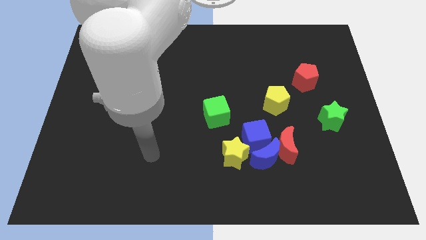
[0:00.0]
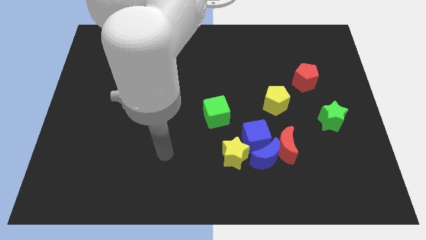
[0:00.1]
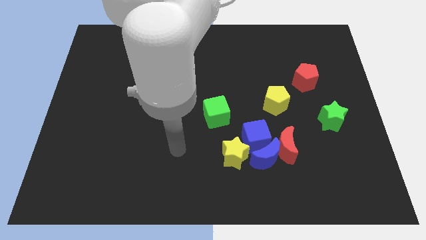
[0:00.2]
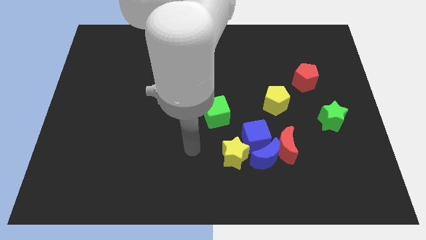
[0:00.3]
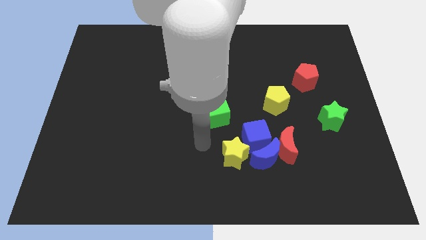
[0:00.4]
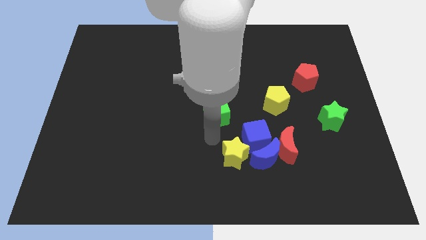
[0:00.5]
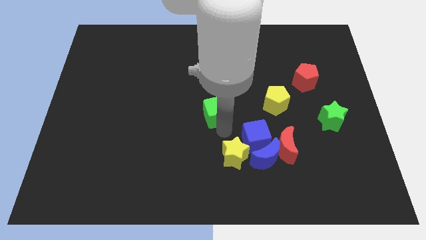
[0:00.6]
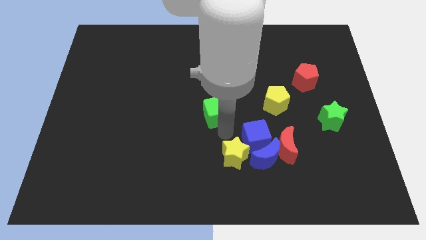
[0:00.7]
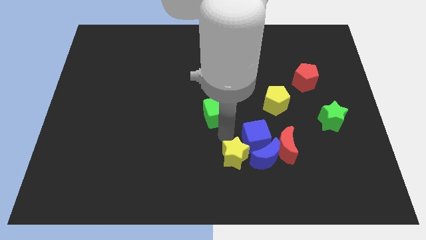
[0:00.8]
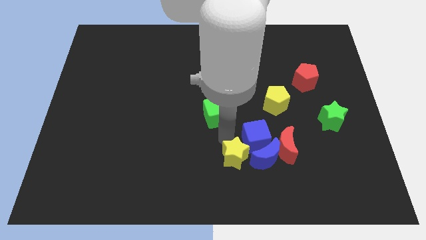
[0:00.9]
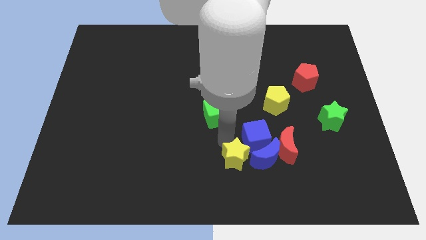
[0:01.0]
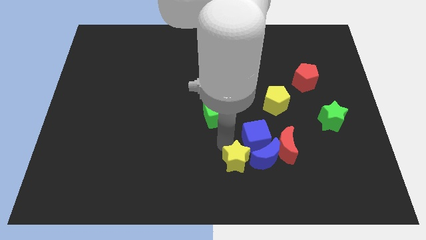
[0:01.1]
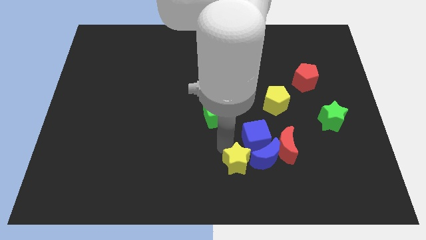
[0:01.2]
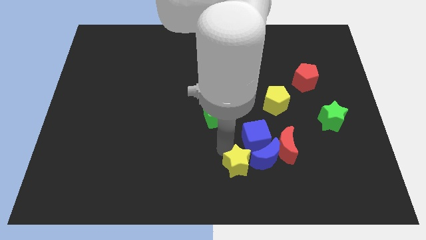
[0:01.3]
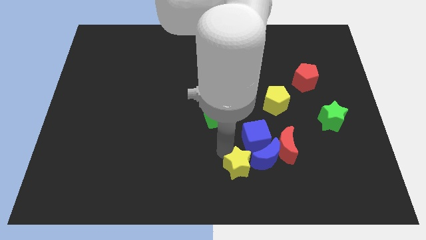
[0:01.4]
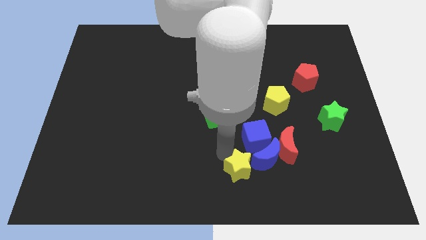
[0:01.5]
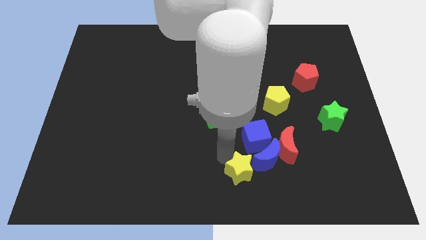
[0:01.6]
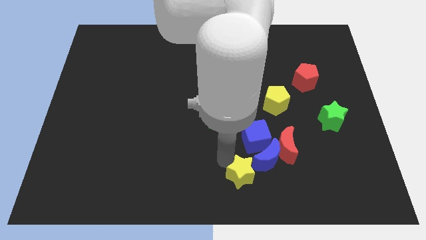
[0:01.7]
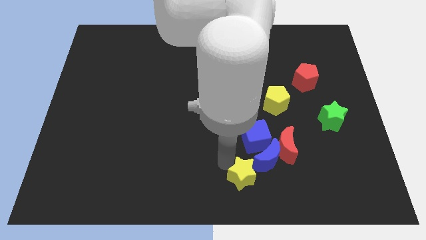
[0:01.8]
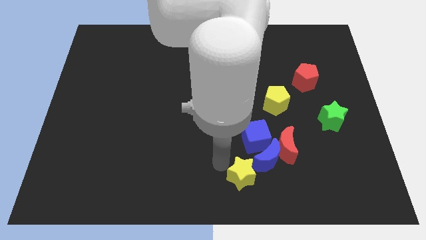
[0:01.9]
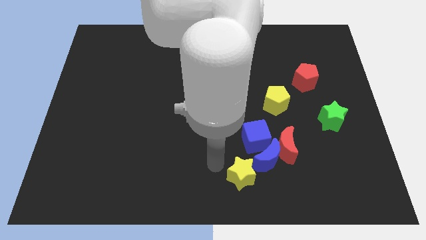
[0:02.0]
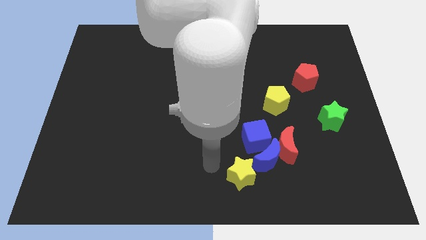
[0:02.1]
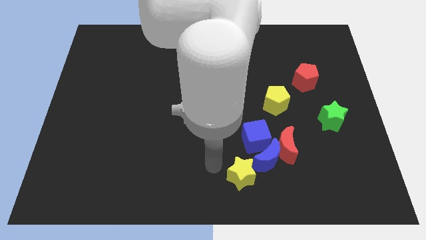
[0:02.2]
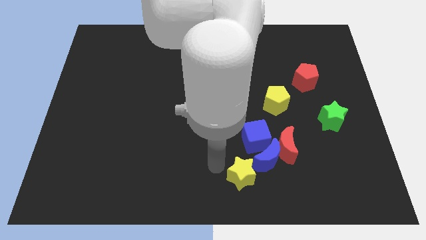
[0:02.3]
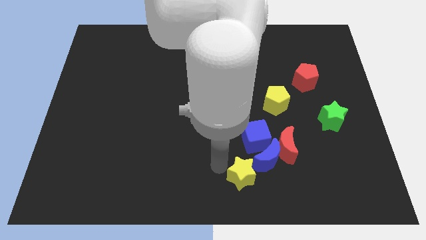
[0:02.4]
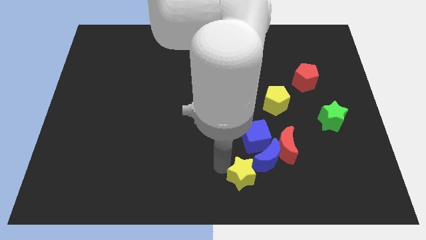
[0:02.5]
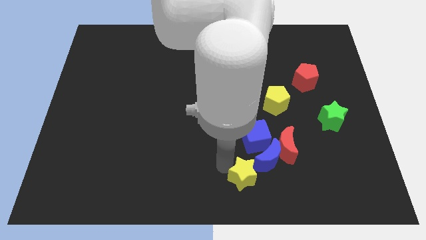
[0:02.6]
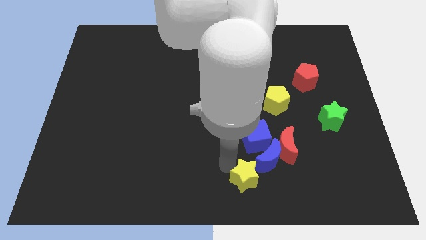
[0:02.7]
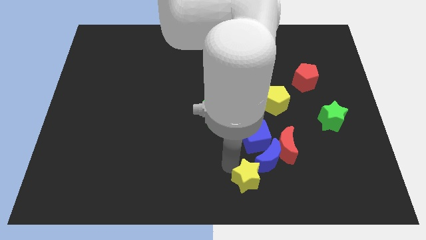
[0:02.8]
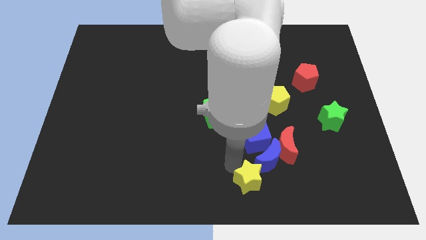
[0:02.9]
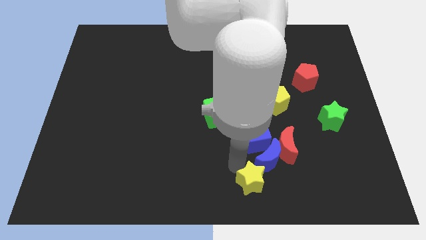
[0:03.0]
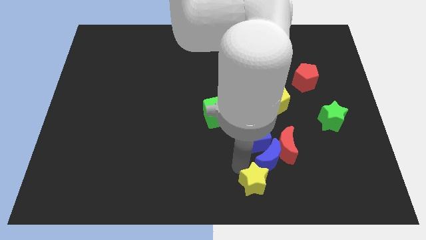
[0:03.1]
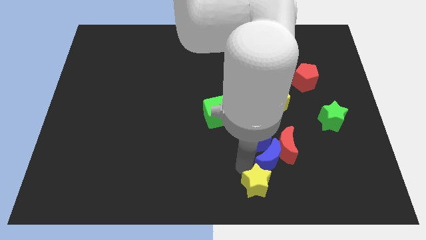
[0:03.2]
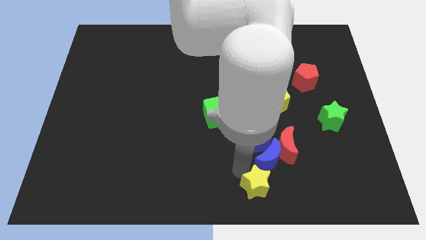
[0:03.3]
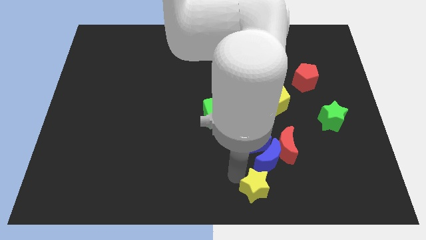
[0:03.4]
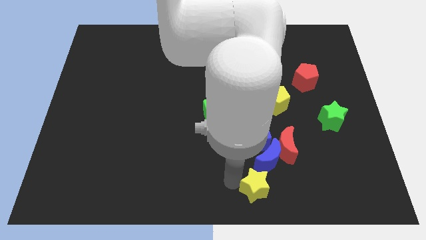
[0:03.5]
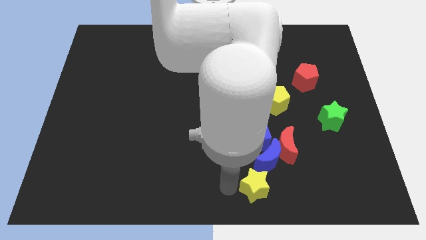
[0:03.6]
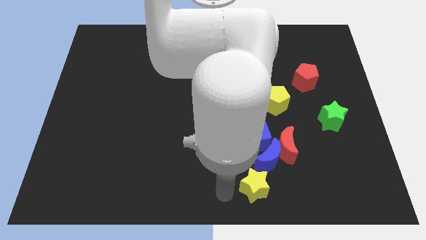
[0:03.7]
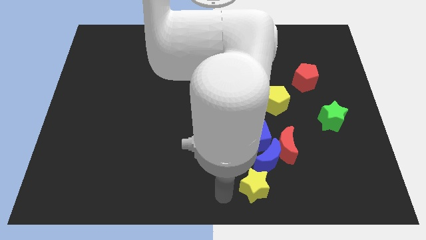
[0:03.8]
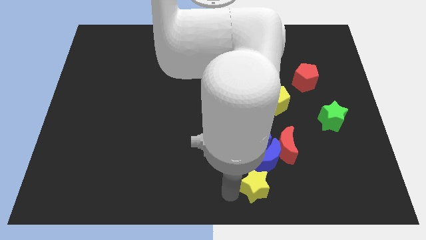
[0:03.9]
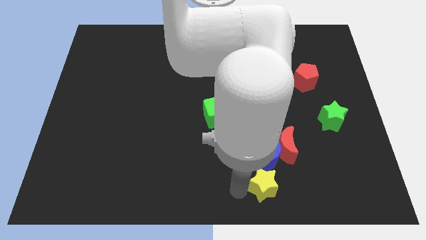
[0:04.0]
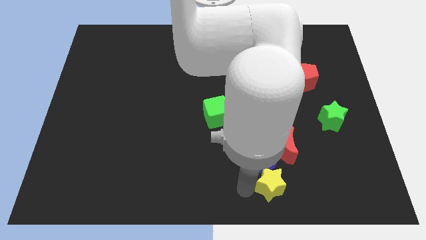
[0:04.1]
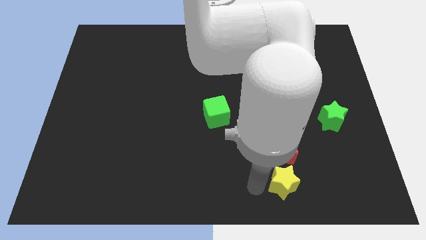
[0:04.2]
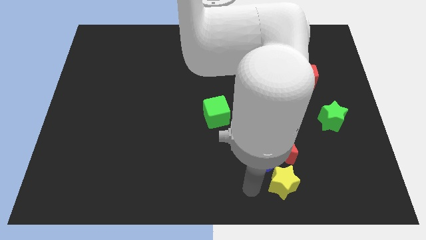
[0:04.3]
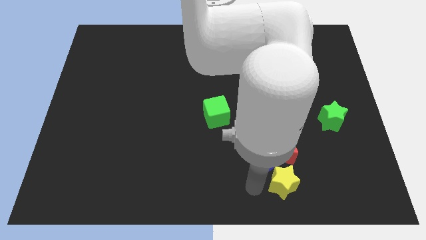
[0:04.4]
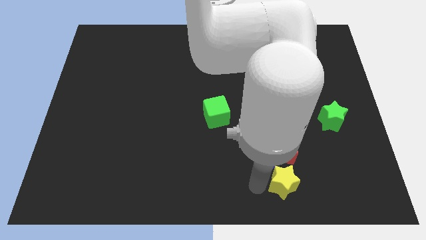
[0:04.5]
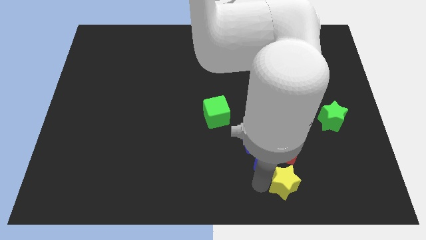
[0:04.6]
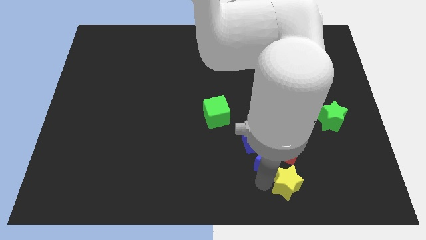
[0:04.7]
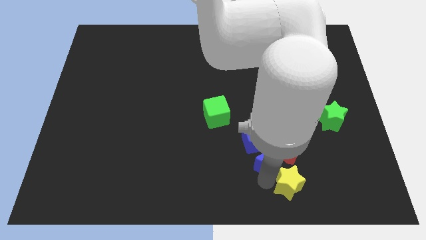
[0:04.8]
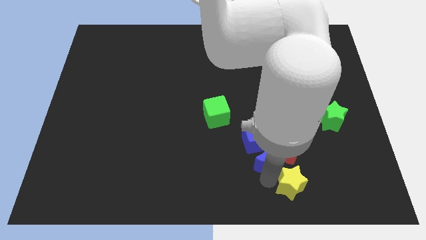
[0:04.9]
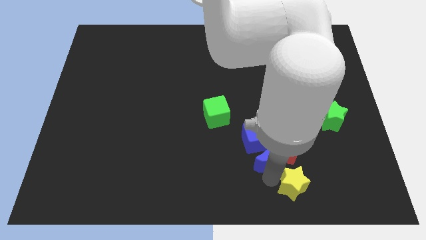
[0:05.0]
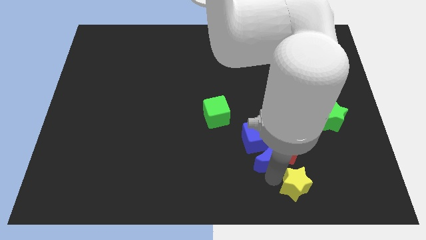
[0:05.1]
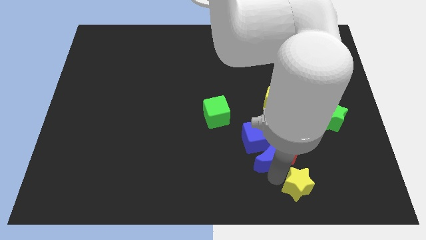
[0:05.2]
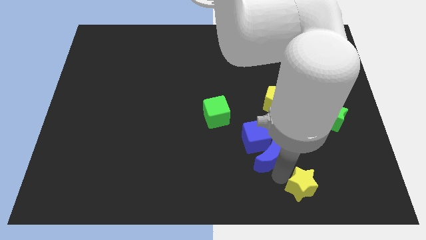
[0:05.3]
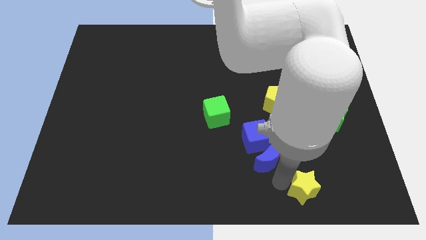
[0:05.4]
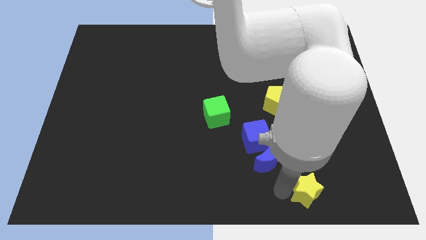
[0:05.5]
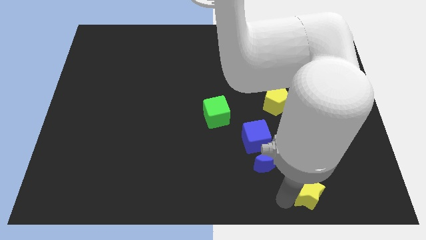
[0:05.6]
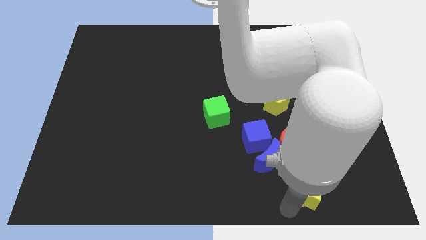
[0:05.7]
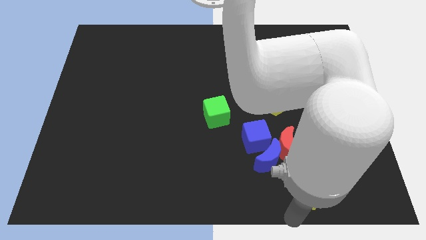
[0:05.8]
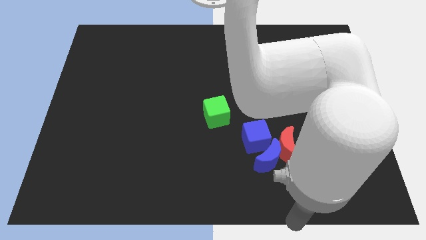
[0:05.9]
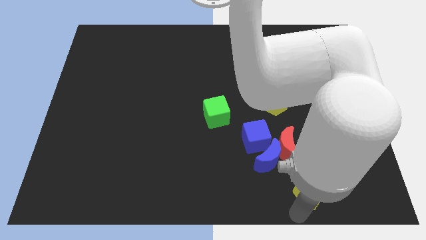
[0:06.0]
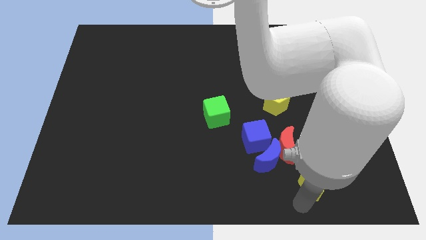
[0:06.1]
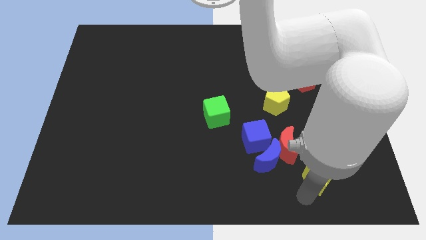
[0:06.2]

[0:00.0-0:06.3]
slide the yellow star right of the blue moon
